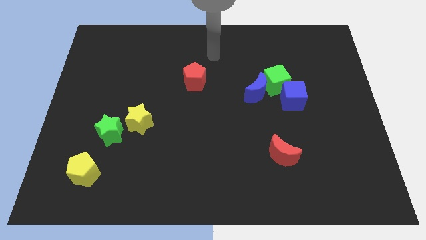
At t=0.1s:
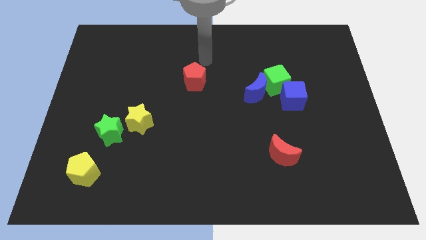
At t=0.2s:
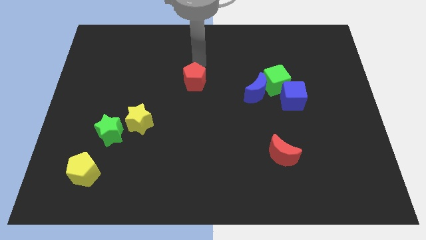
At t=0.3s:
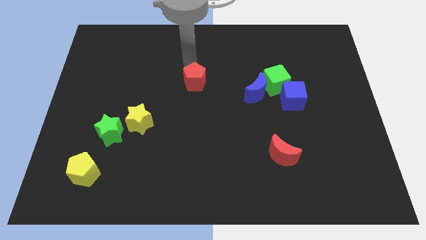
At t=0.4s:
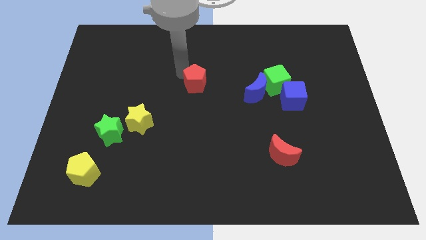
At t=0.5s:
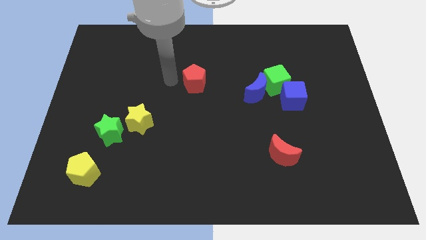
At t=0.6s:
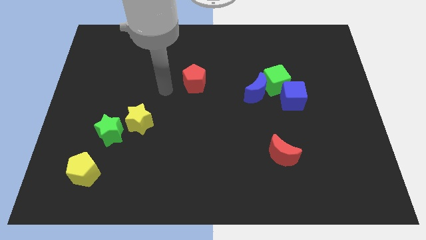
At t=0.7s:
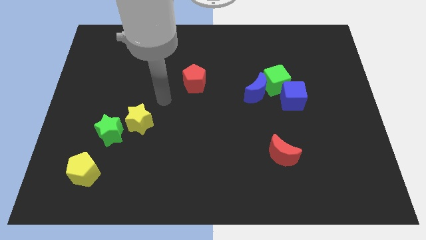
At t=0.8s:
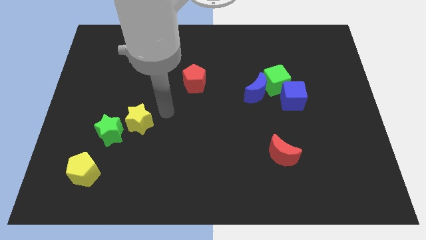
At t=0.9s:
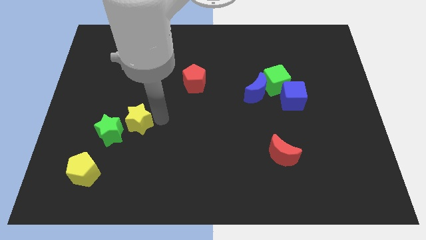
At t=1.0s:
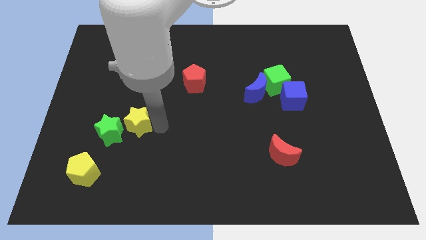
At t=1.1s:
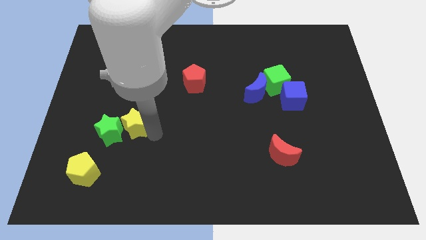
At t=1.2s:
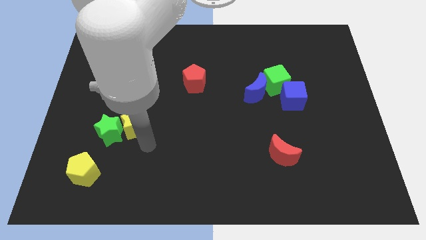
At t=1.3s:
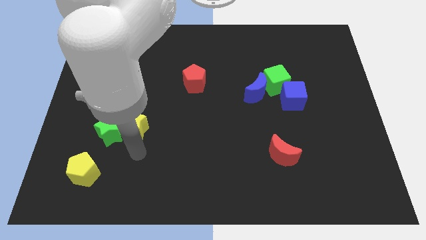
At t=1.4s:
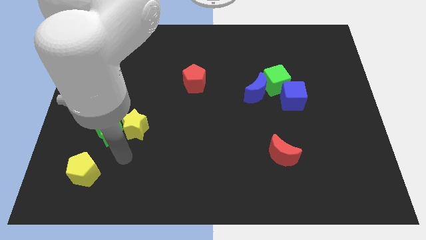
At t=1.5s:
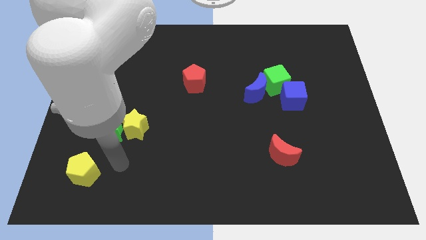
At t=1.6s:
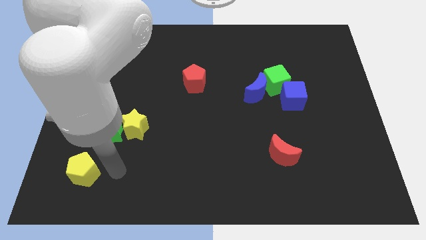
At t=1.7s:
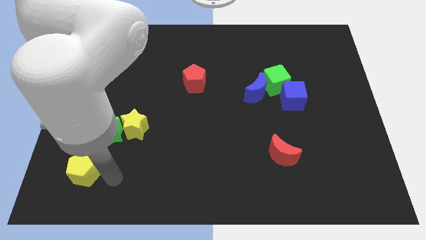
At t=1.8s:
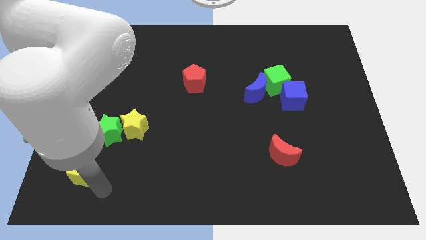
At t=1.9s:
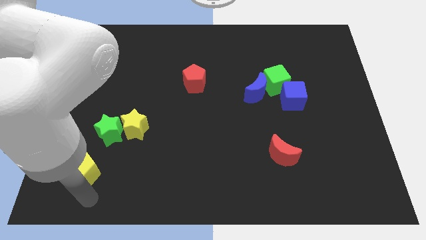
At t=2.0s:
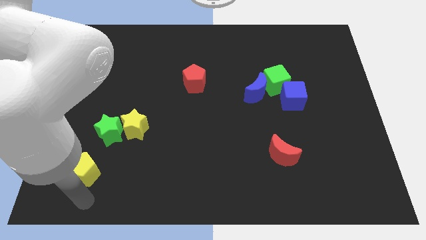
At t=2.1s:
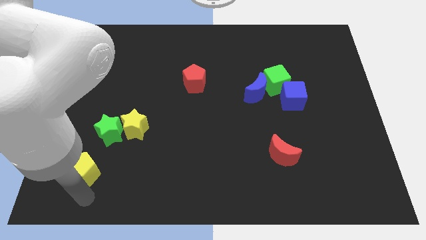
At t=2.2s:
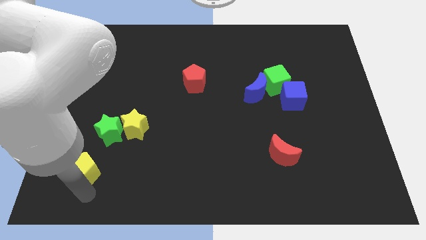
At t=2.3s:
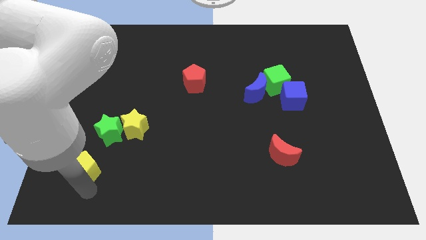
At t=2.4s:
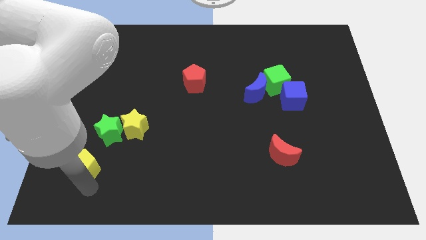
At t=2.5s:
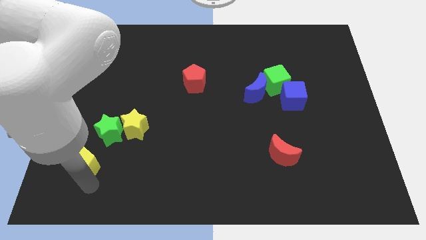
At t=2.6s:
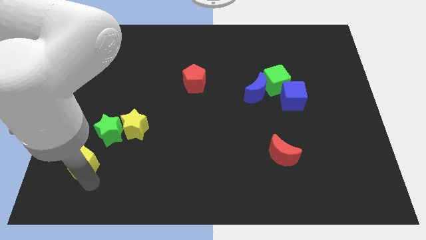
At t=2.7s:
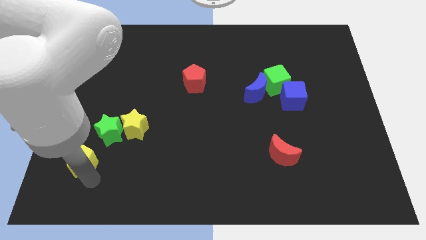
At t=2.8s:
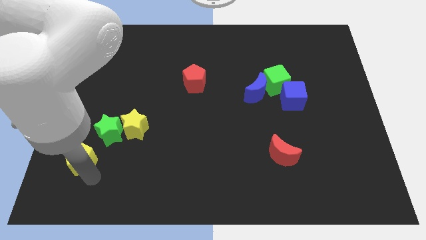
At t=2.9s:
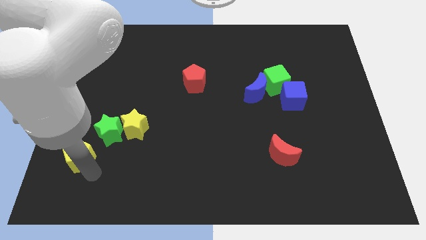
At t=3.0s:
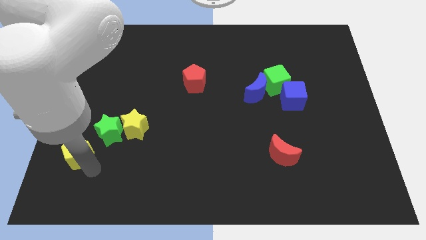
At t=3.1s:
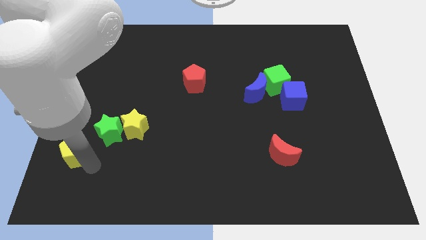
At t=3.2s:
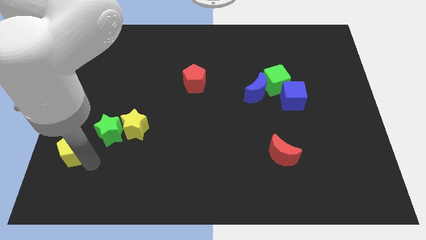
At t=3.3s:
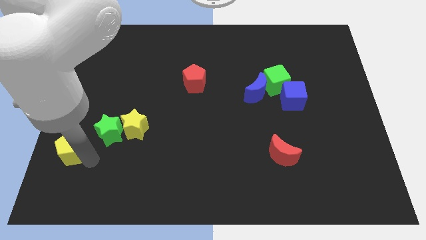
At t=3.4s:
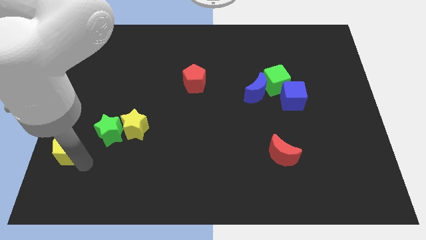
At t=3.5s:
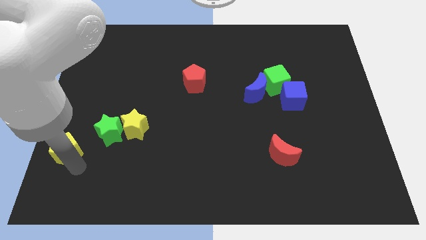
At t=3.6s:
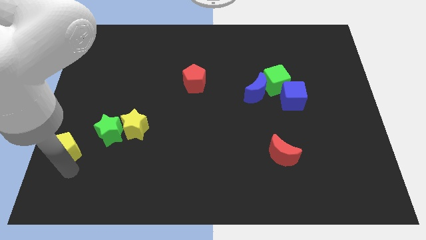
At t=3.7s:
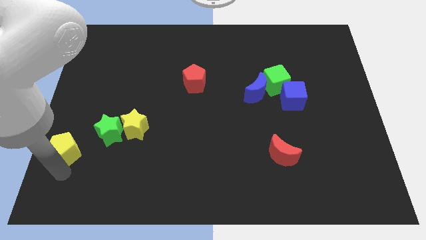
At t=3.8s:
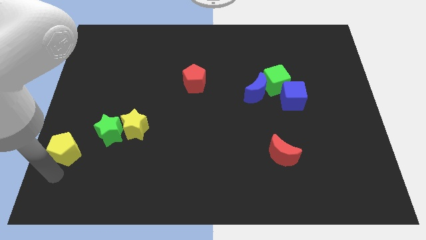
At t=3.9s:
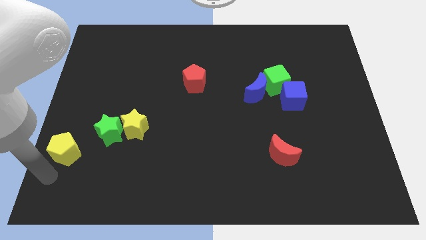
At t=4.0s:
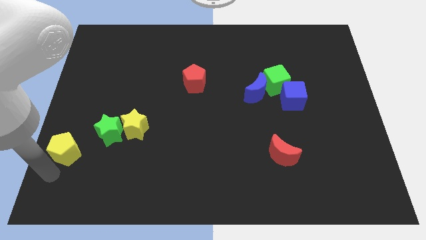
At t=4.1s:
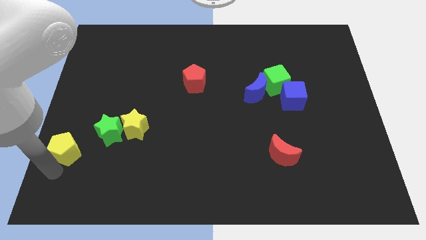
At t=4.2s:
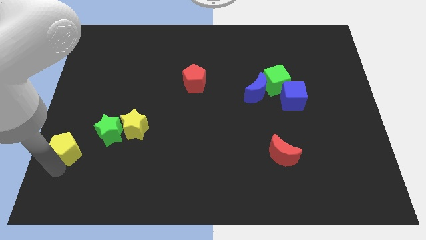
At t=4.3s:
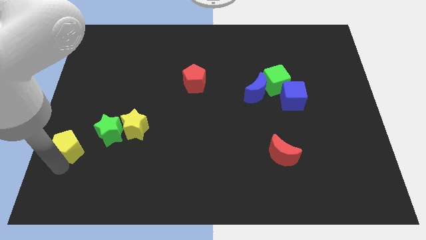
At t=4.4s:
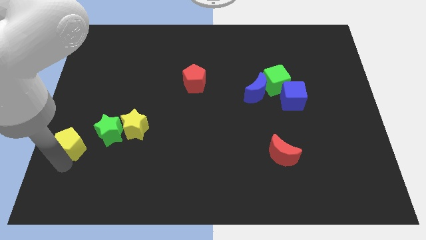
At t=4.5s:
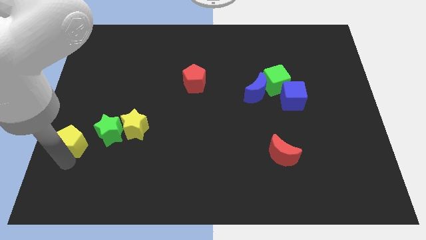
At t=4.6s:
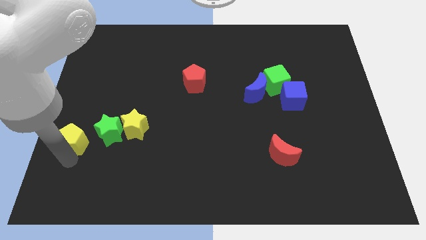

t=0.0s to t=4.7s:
move the yellow pentagon up somewhat

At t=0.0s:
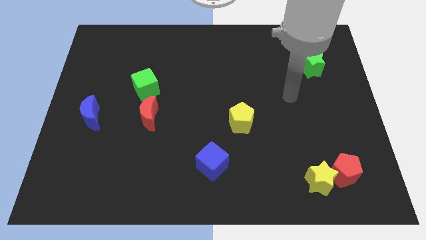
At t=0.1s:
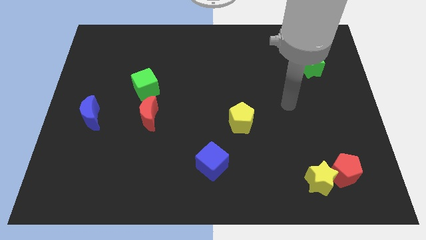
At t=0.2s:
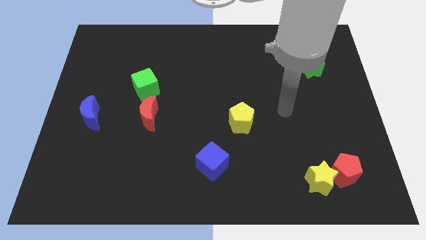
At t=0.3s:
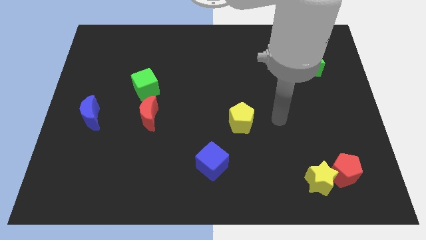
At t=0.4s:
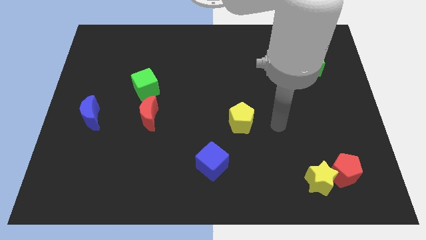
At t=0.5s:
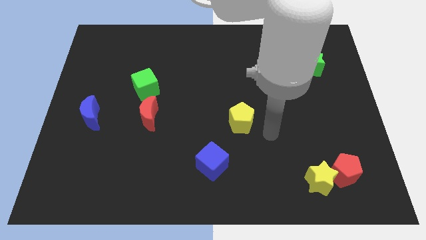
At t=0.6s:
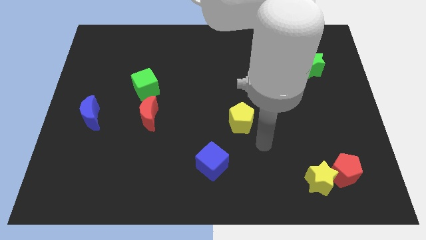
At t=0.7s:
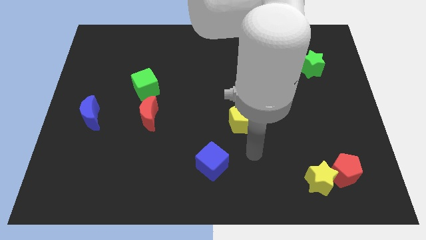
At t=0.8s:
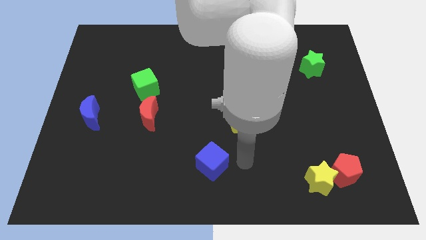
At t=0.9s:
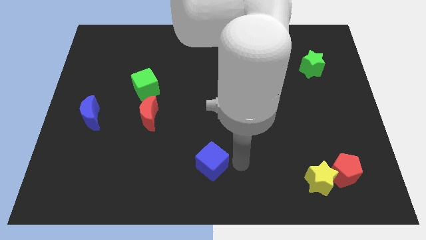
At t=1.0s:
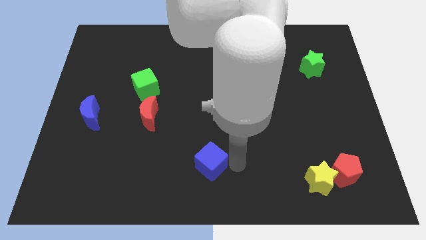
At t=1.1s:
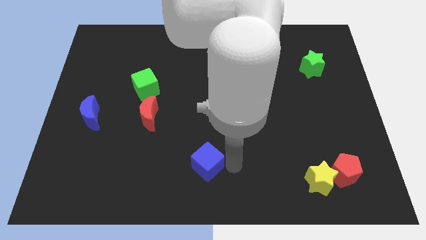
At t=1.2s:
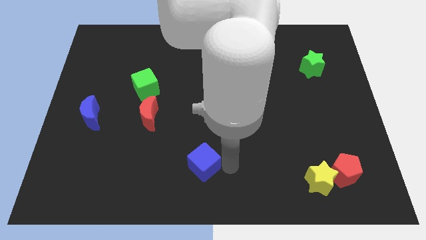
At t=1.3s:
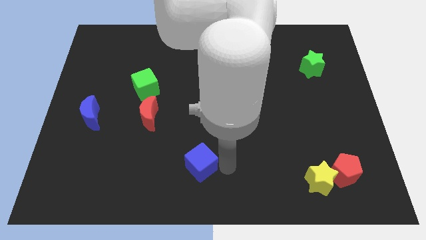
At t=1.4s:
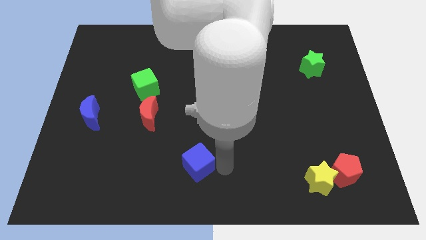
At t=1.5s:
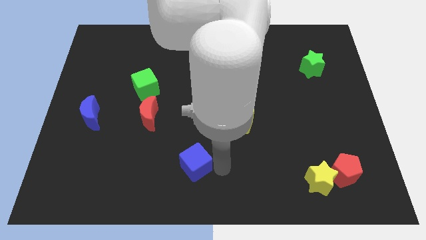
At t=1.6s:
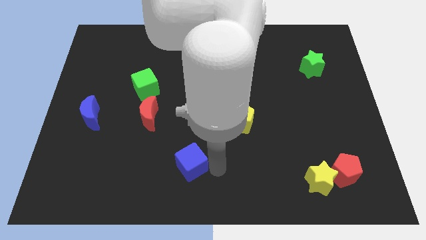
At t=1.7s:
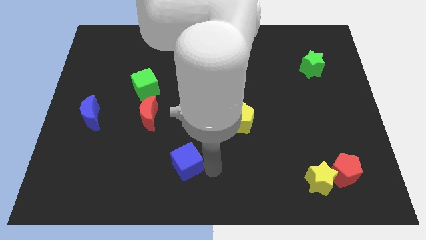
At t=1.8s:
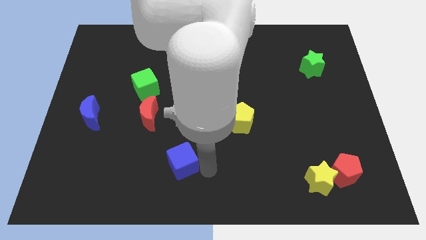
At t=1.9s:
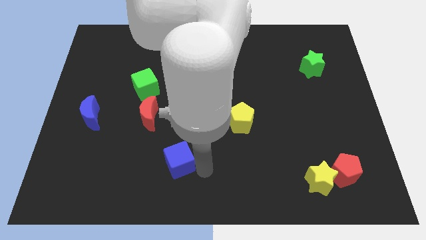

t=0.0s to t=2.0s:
move the blue cube left a little

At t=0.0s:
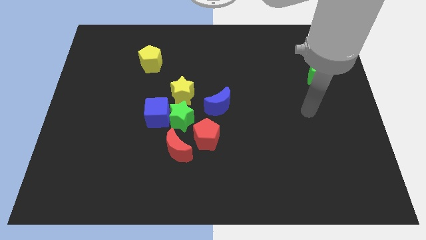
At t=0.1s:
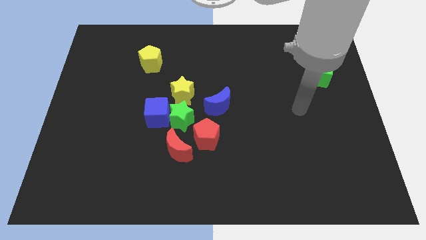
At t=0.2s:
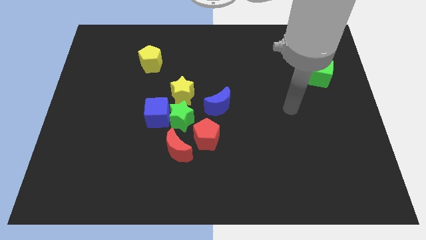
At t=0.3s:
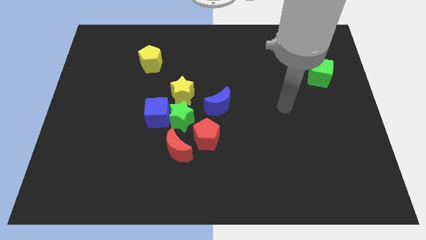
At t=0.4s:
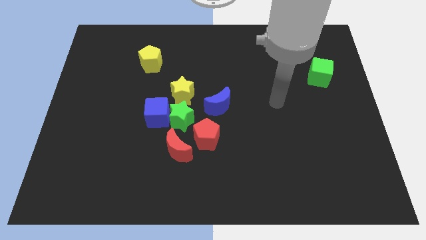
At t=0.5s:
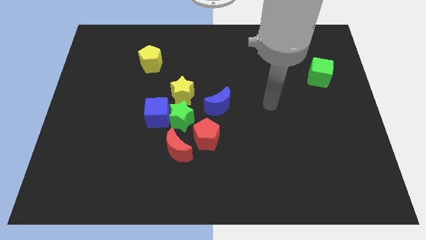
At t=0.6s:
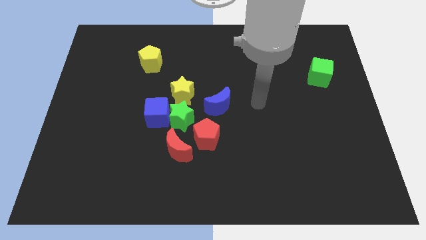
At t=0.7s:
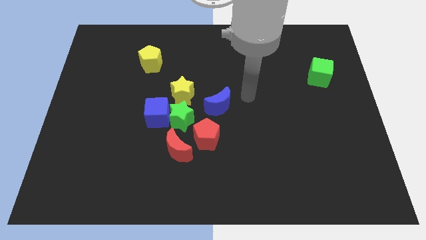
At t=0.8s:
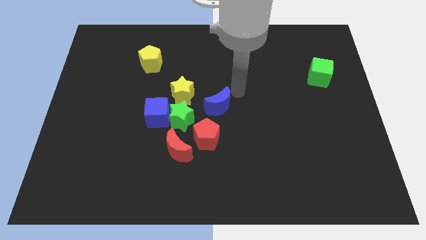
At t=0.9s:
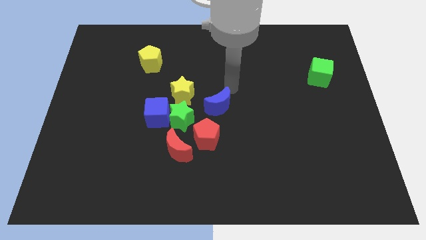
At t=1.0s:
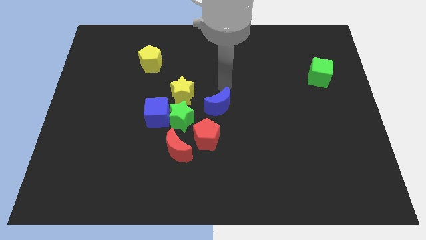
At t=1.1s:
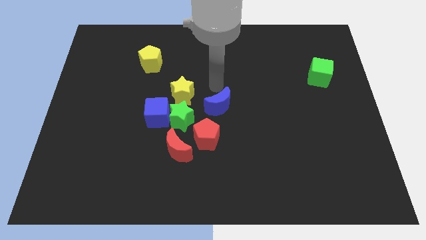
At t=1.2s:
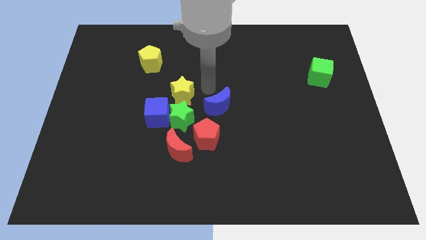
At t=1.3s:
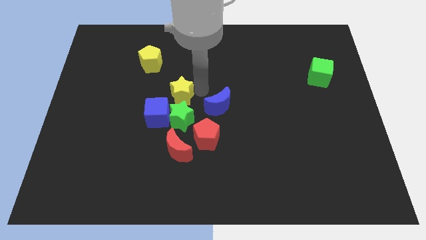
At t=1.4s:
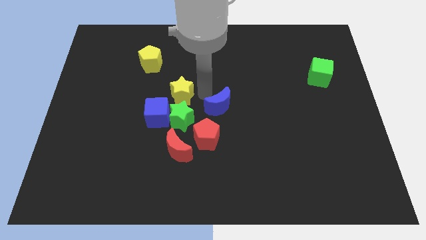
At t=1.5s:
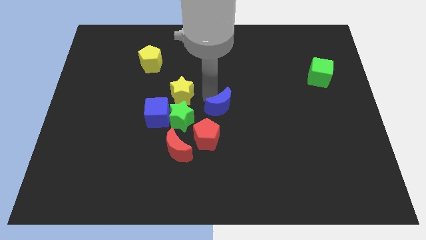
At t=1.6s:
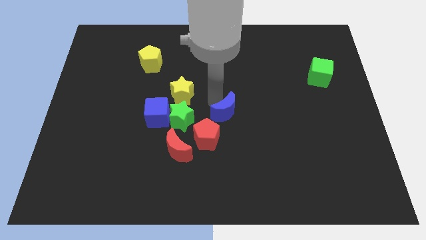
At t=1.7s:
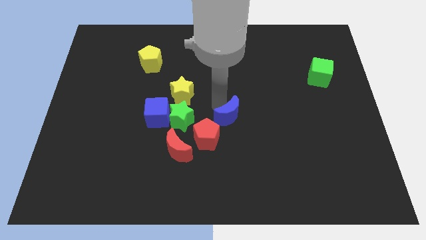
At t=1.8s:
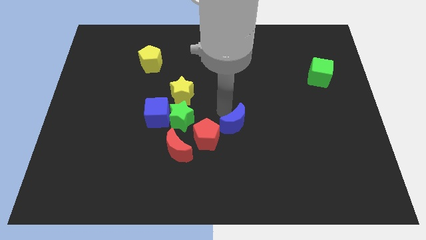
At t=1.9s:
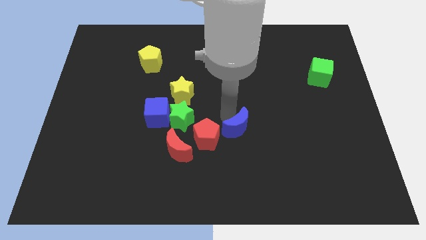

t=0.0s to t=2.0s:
slightly push the blue moon down and right diagonally
